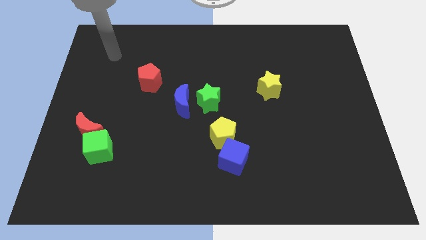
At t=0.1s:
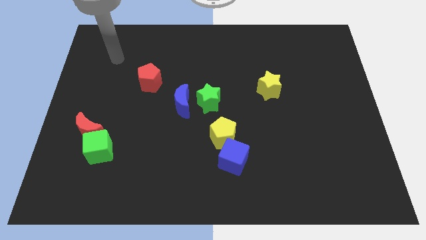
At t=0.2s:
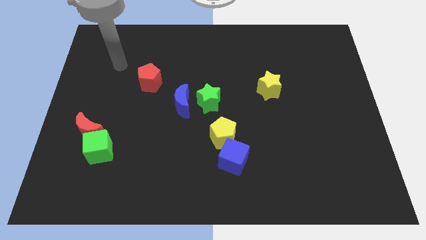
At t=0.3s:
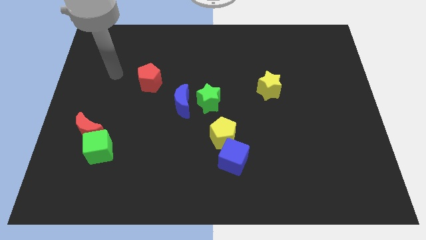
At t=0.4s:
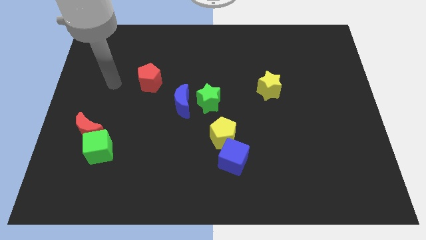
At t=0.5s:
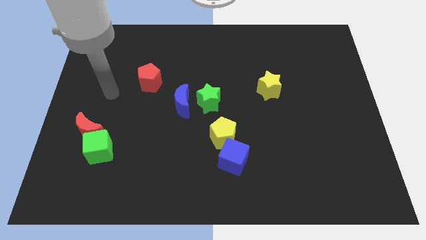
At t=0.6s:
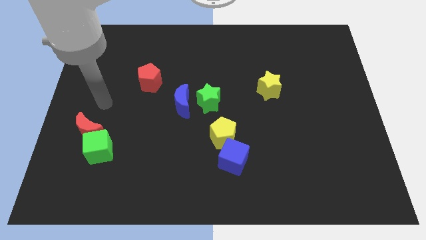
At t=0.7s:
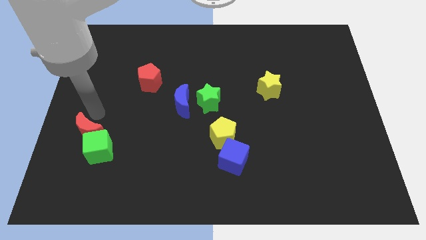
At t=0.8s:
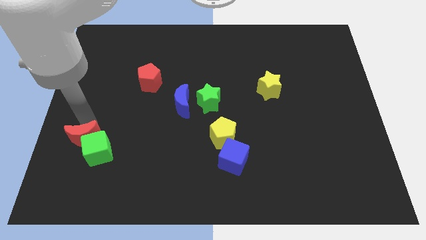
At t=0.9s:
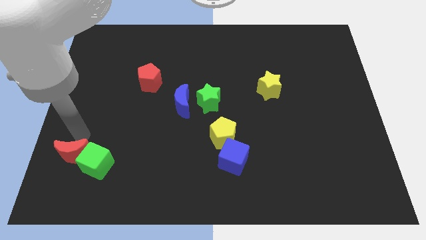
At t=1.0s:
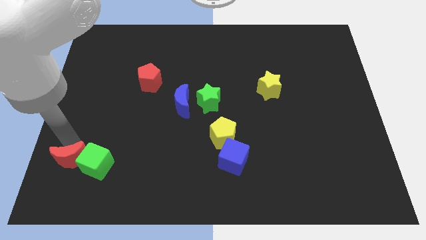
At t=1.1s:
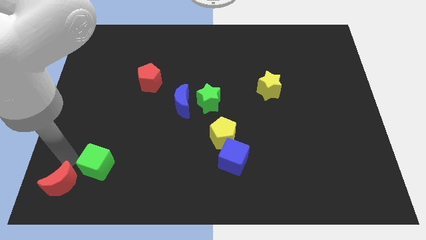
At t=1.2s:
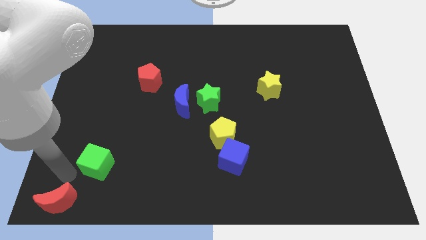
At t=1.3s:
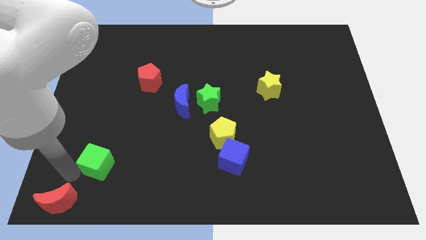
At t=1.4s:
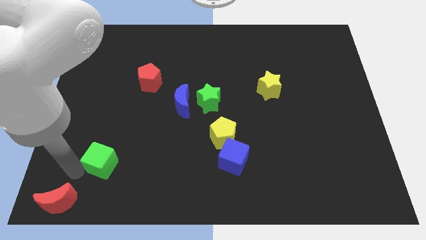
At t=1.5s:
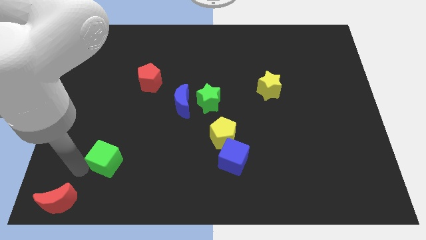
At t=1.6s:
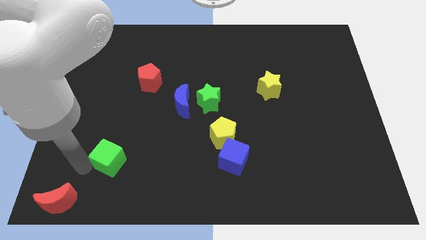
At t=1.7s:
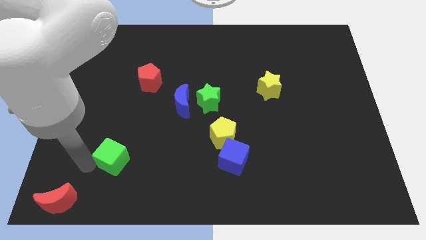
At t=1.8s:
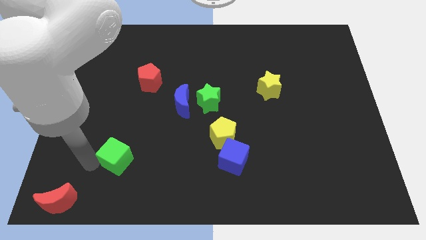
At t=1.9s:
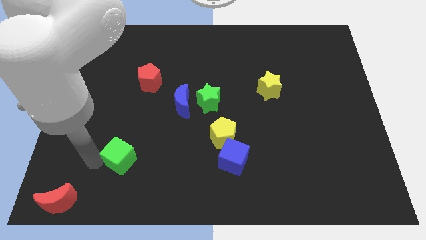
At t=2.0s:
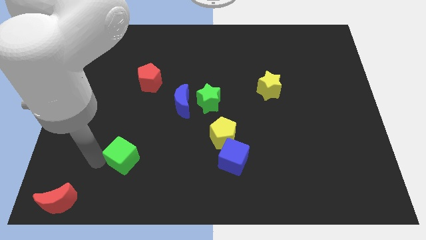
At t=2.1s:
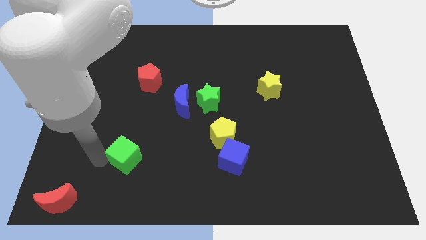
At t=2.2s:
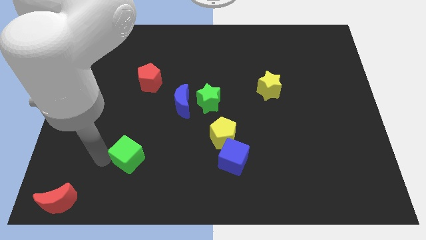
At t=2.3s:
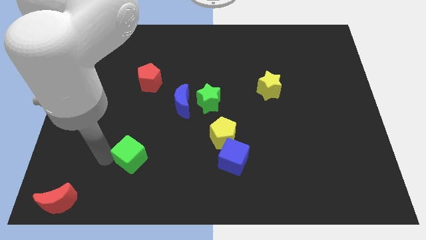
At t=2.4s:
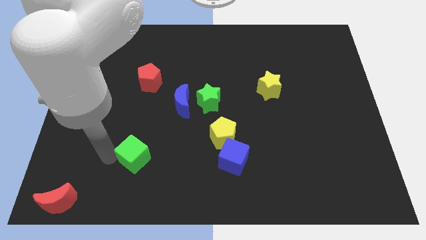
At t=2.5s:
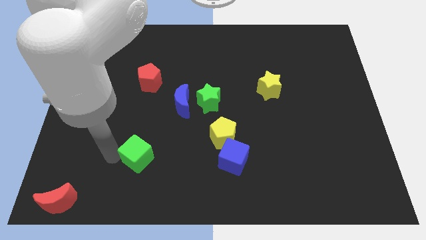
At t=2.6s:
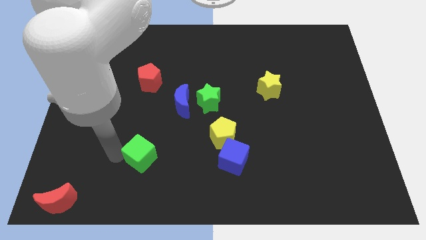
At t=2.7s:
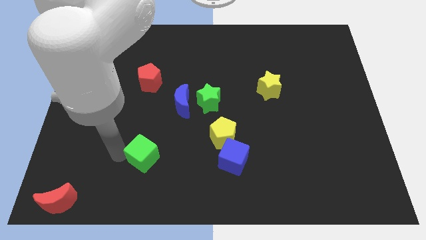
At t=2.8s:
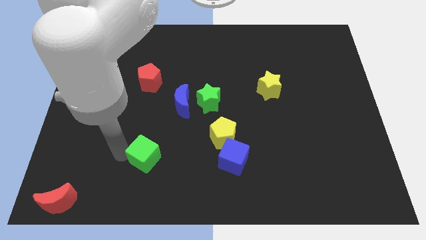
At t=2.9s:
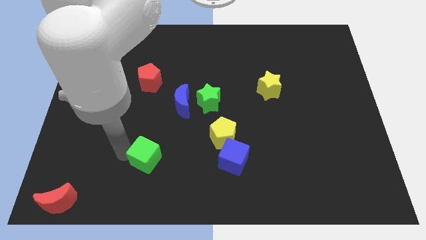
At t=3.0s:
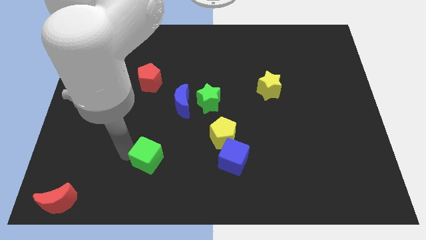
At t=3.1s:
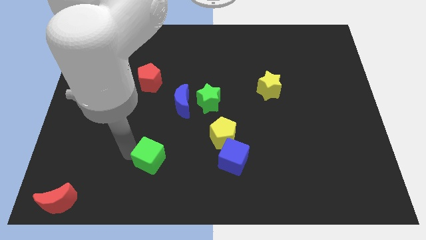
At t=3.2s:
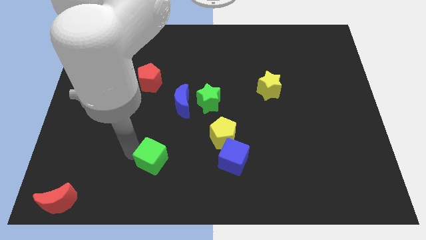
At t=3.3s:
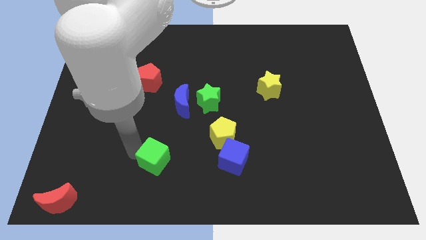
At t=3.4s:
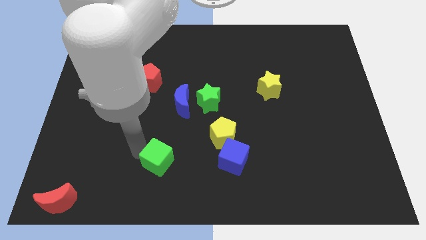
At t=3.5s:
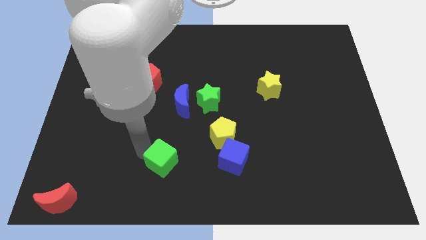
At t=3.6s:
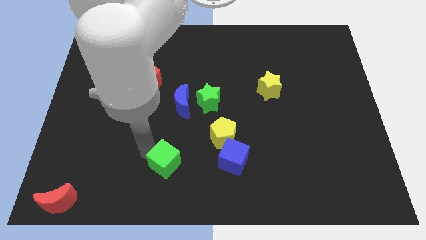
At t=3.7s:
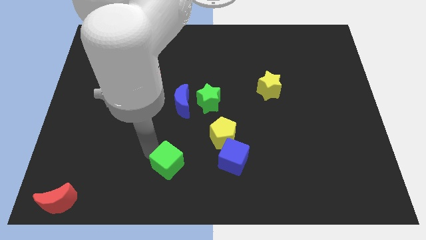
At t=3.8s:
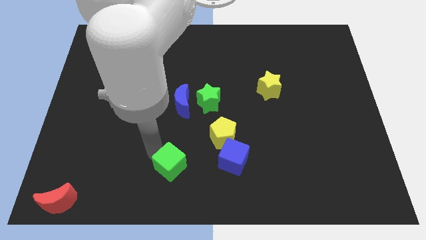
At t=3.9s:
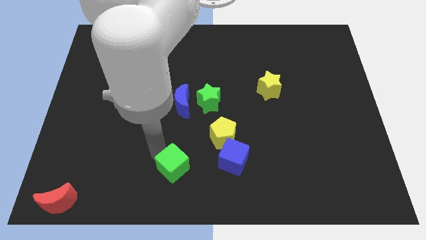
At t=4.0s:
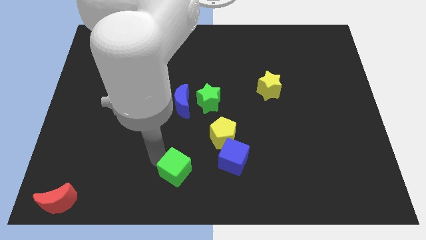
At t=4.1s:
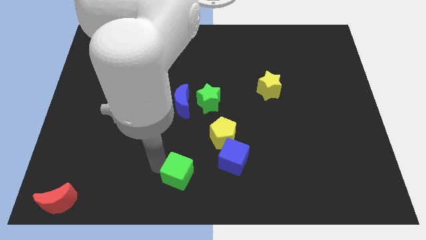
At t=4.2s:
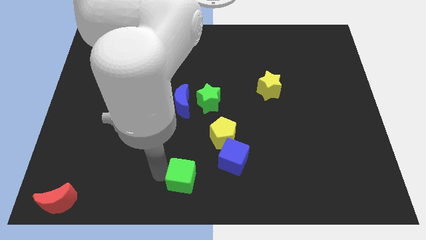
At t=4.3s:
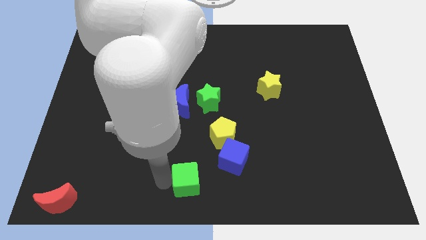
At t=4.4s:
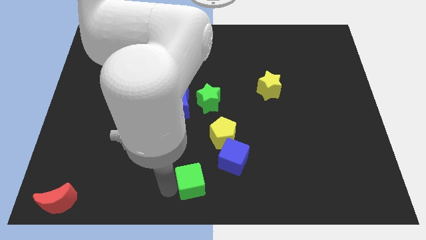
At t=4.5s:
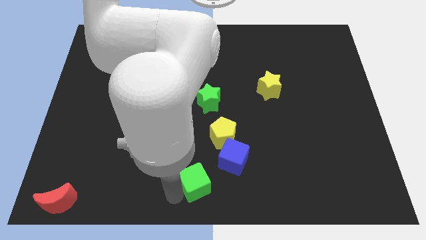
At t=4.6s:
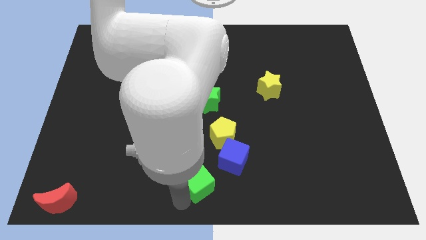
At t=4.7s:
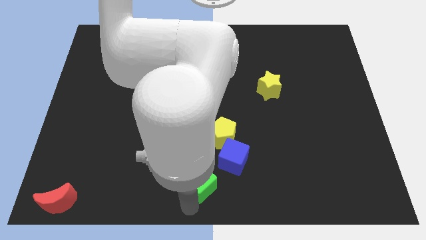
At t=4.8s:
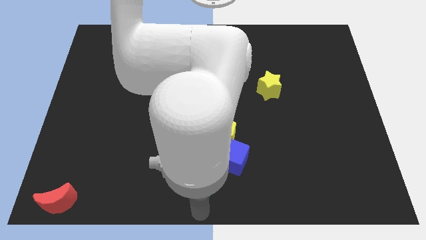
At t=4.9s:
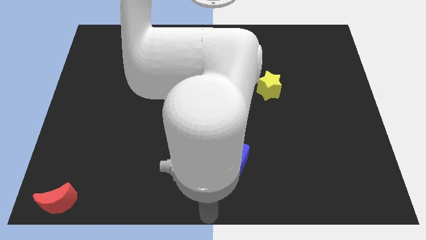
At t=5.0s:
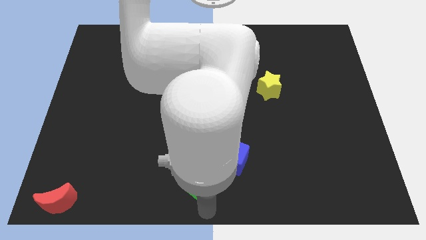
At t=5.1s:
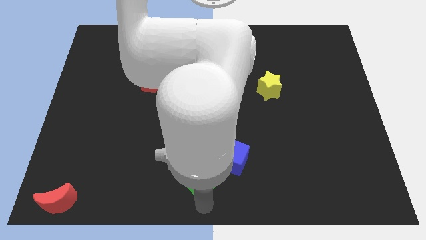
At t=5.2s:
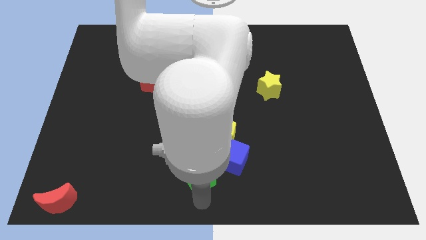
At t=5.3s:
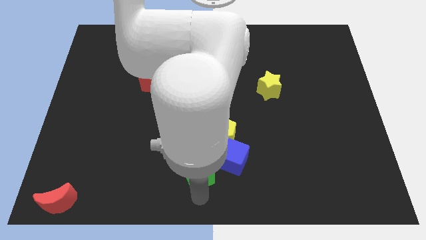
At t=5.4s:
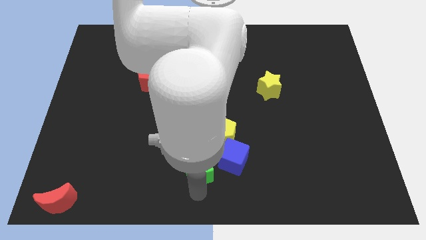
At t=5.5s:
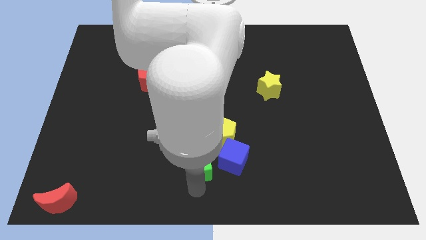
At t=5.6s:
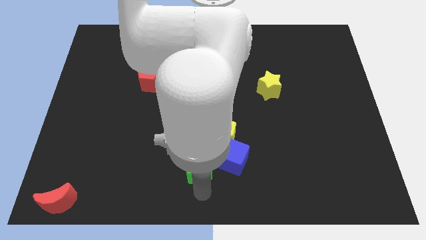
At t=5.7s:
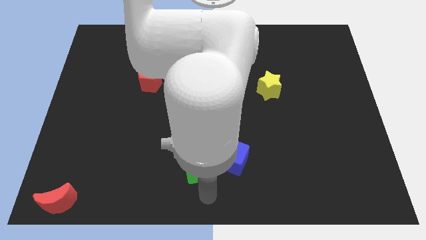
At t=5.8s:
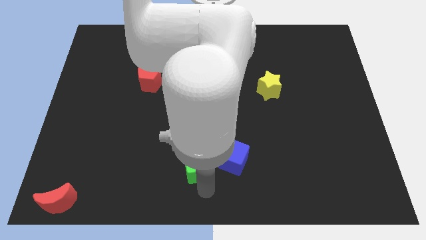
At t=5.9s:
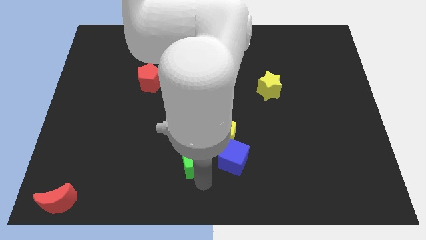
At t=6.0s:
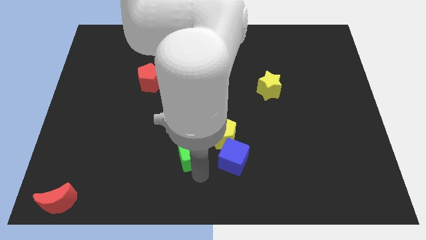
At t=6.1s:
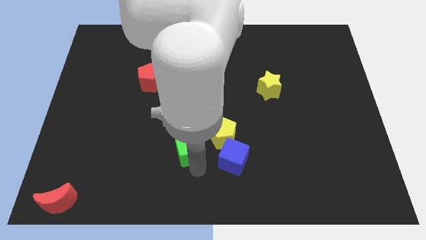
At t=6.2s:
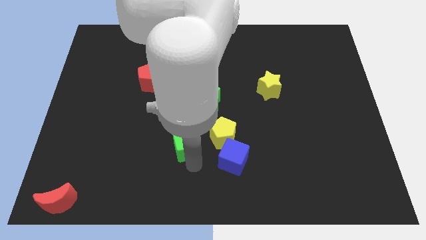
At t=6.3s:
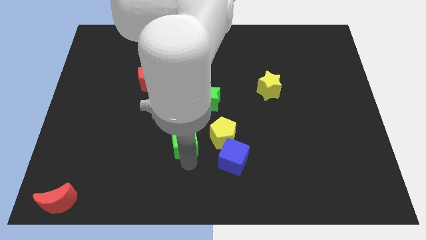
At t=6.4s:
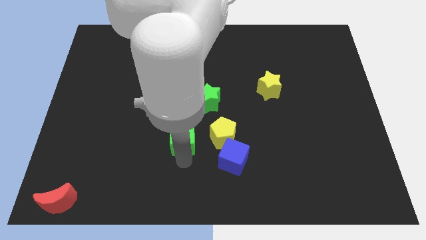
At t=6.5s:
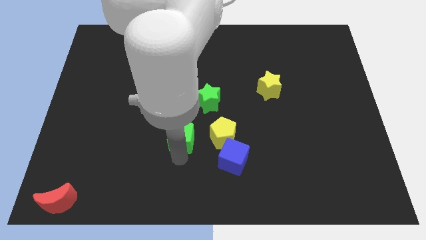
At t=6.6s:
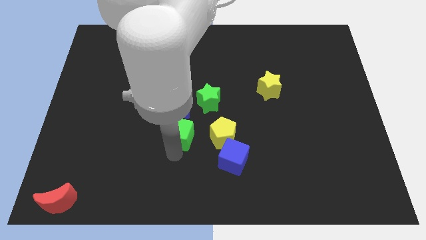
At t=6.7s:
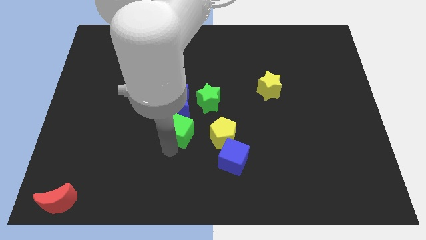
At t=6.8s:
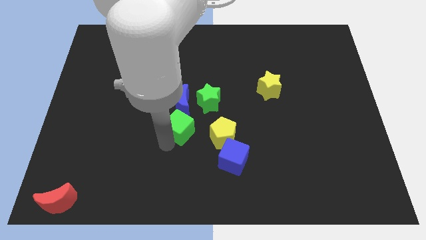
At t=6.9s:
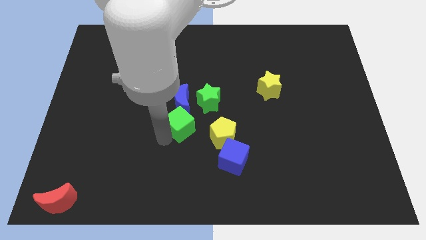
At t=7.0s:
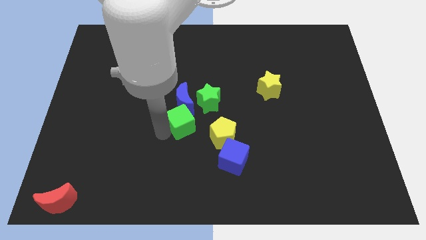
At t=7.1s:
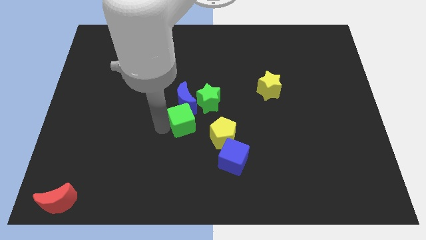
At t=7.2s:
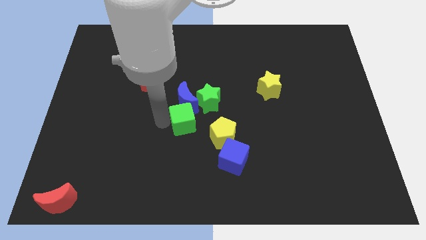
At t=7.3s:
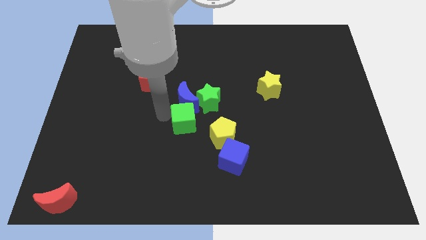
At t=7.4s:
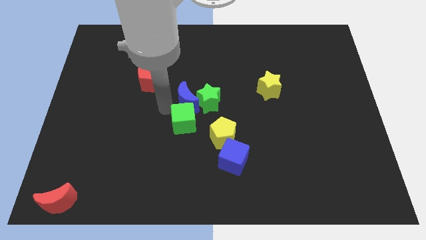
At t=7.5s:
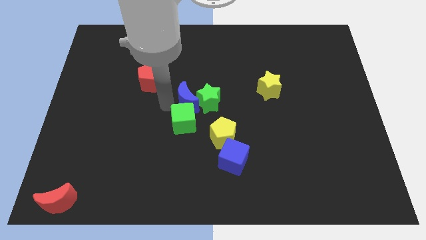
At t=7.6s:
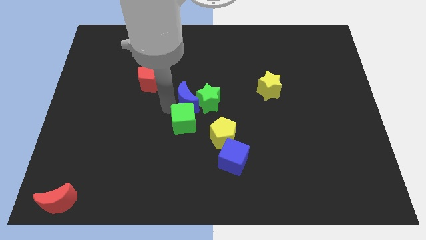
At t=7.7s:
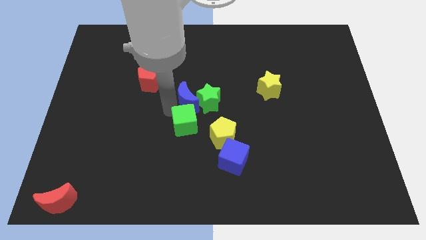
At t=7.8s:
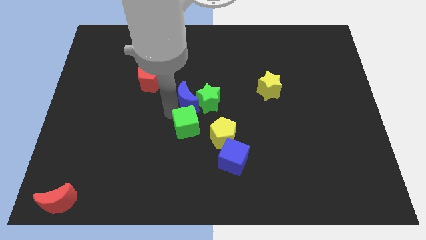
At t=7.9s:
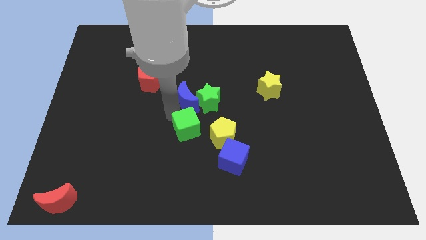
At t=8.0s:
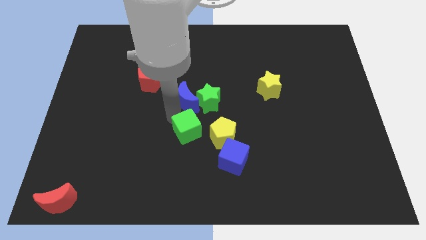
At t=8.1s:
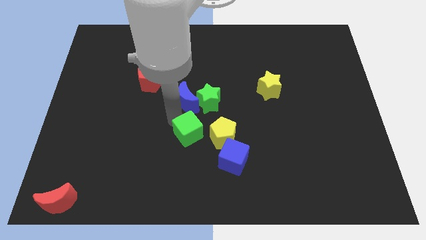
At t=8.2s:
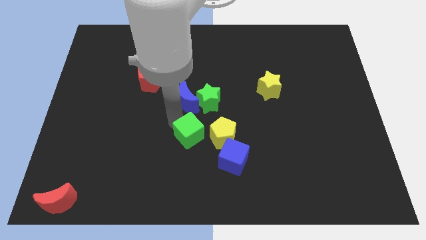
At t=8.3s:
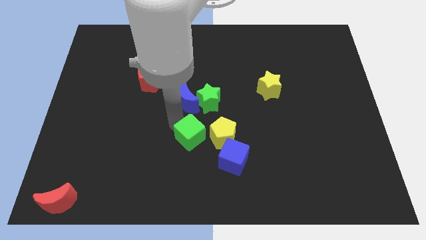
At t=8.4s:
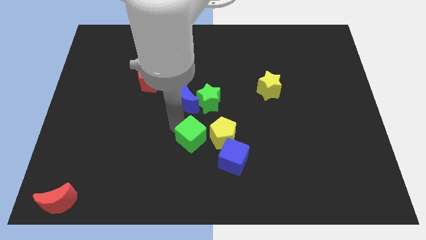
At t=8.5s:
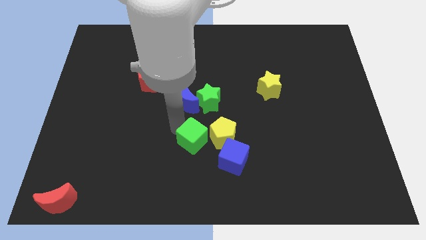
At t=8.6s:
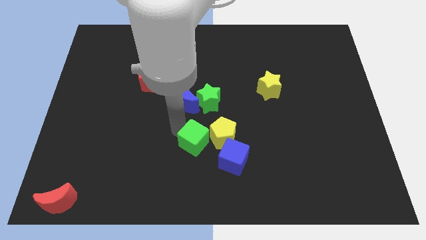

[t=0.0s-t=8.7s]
push the green cube towards the yellow pentagon
